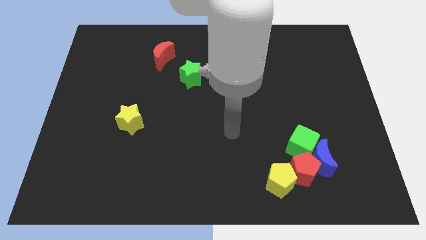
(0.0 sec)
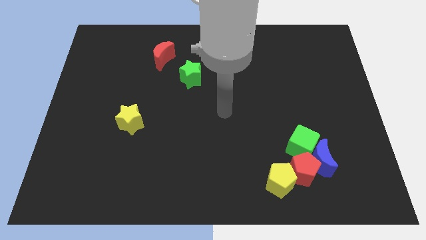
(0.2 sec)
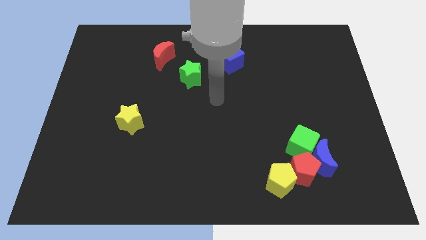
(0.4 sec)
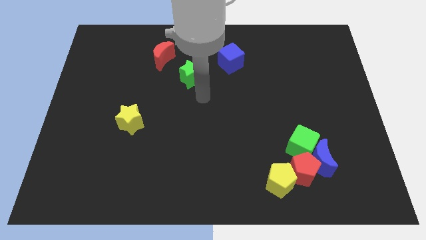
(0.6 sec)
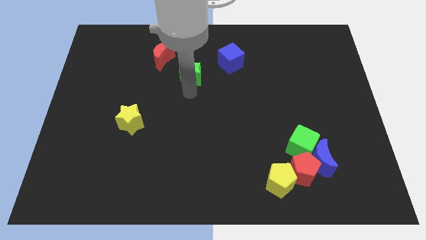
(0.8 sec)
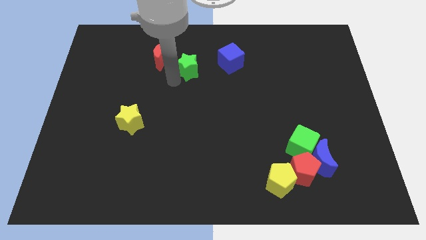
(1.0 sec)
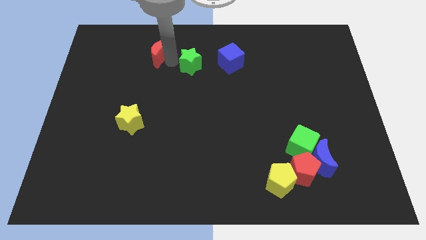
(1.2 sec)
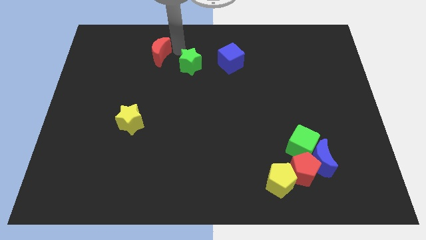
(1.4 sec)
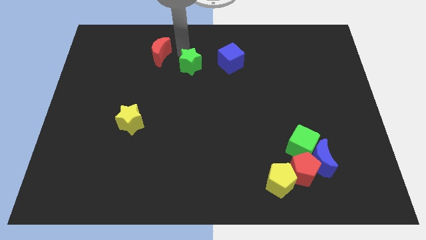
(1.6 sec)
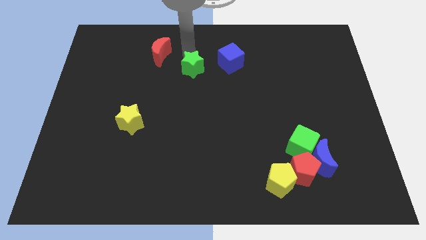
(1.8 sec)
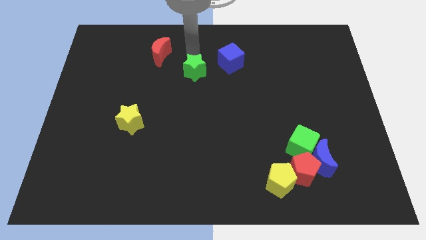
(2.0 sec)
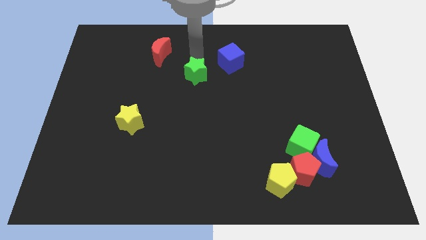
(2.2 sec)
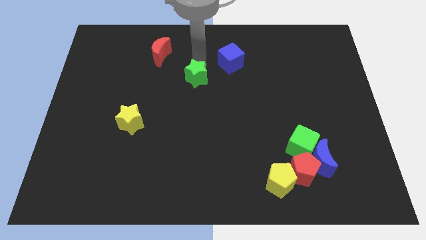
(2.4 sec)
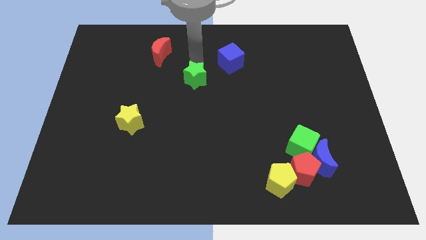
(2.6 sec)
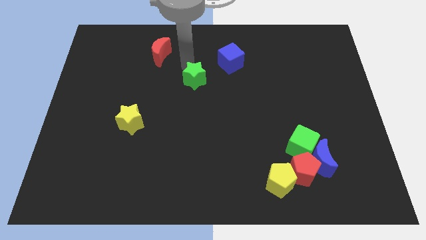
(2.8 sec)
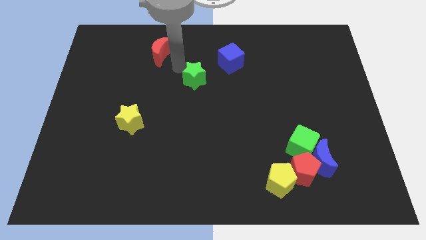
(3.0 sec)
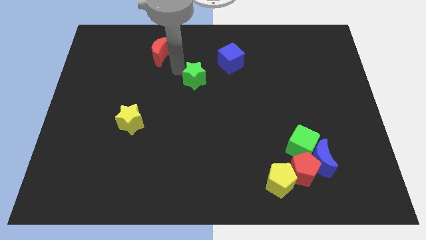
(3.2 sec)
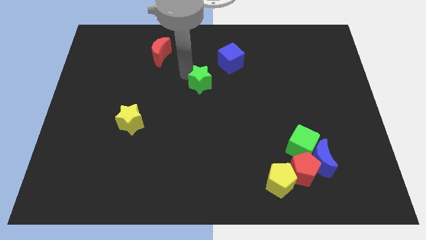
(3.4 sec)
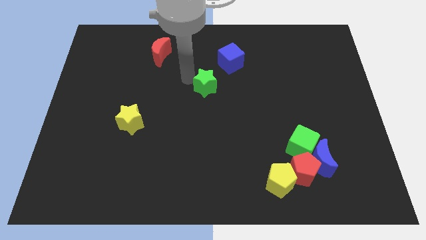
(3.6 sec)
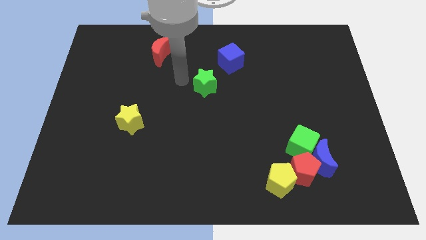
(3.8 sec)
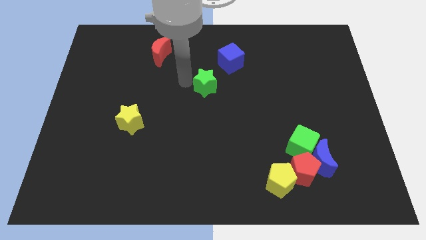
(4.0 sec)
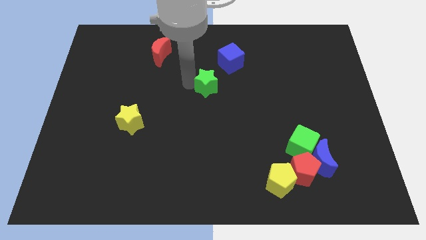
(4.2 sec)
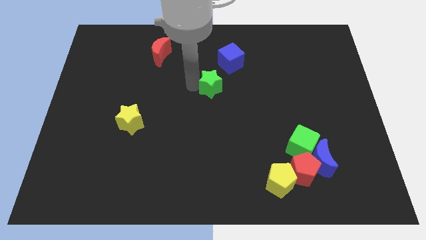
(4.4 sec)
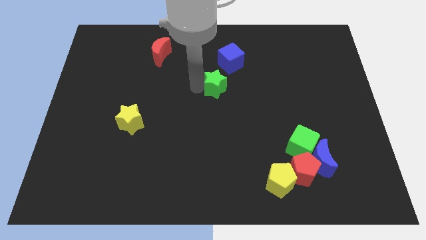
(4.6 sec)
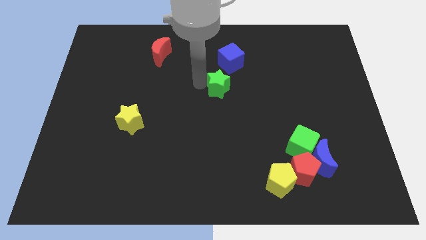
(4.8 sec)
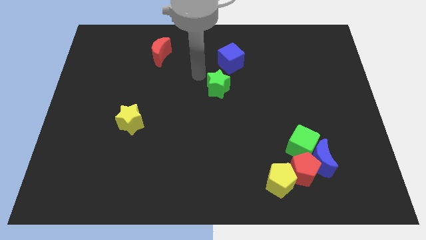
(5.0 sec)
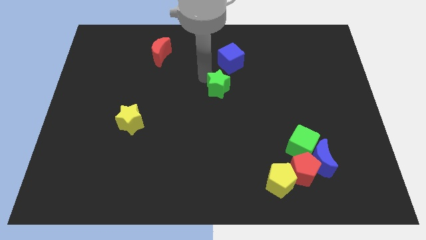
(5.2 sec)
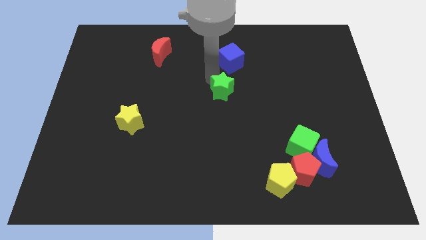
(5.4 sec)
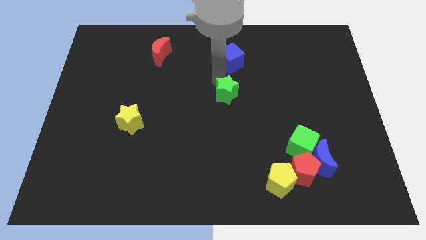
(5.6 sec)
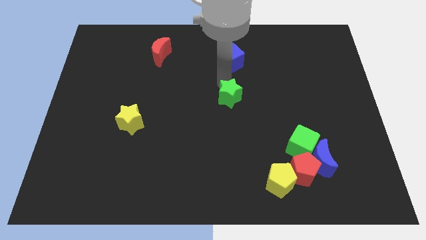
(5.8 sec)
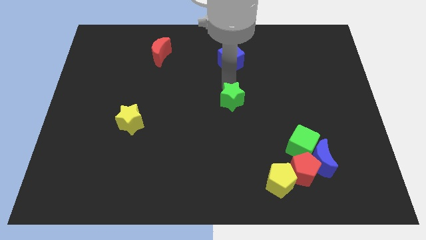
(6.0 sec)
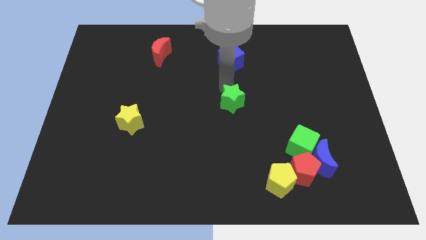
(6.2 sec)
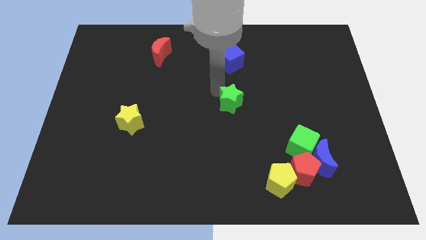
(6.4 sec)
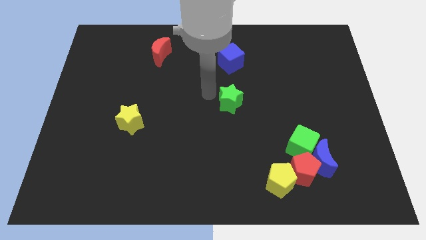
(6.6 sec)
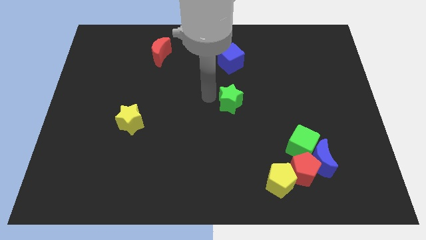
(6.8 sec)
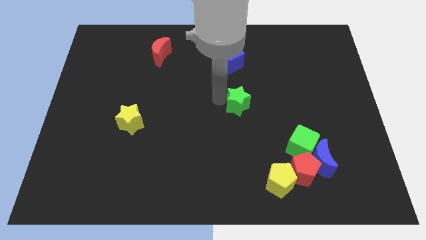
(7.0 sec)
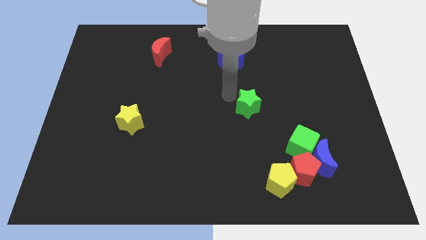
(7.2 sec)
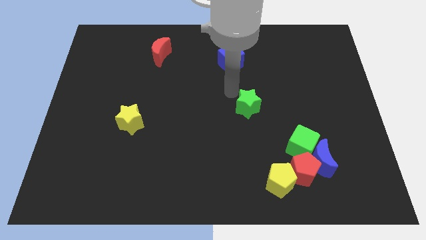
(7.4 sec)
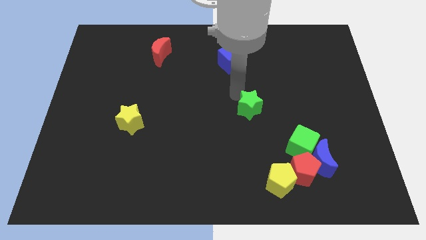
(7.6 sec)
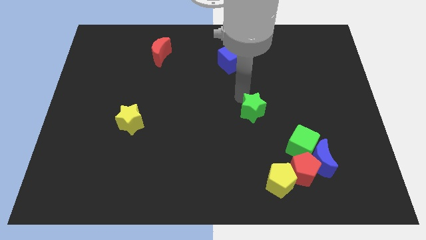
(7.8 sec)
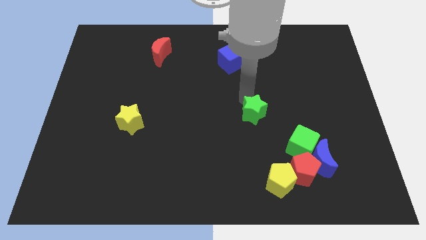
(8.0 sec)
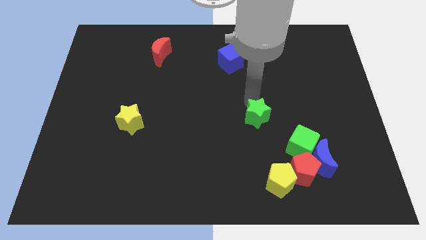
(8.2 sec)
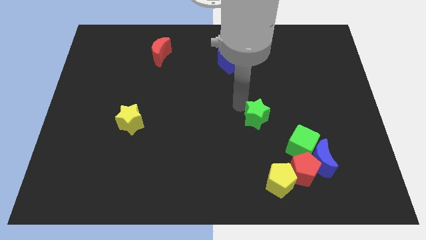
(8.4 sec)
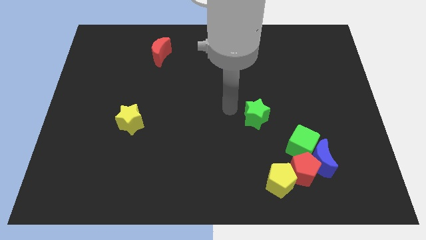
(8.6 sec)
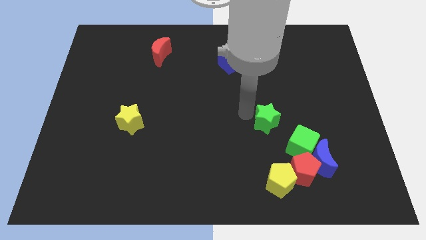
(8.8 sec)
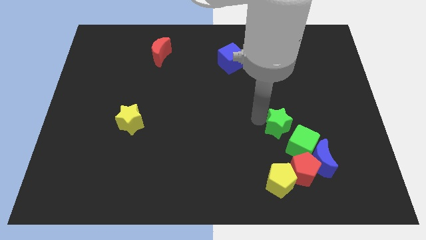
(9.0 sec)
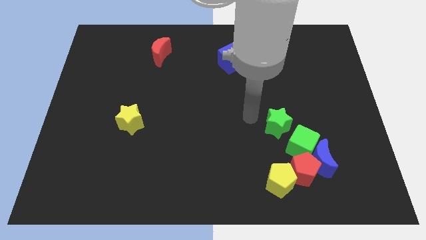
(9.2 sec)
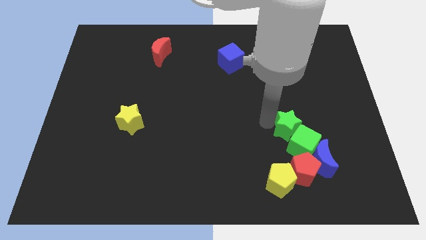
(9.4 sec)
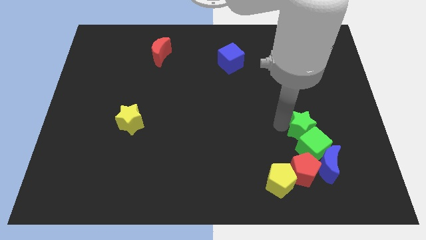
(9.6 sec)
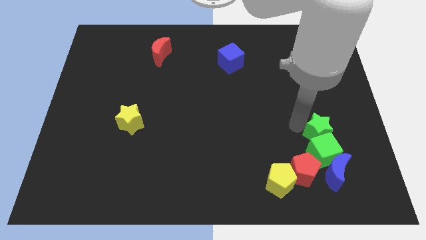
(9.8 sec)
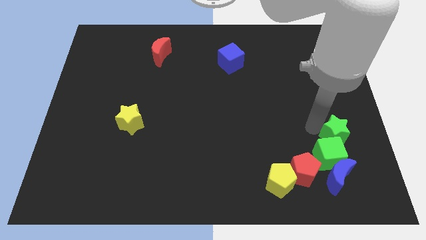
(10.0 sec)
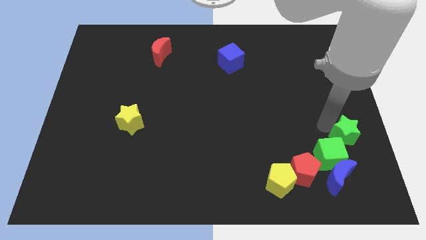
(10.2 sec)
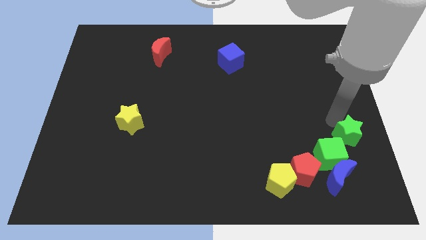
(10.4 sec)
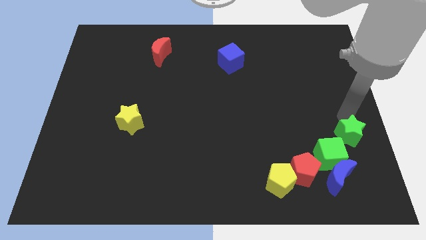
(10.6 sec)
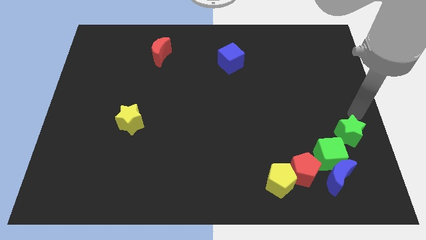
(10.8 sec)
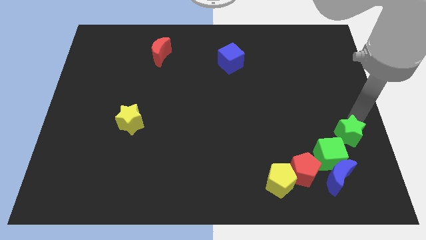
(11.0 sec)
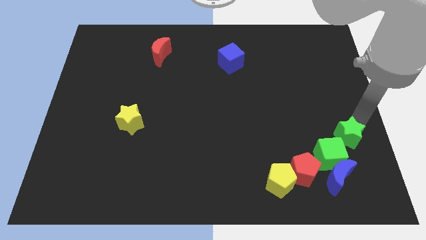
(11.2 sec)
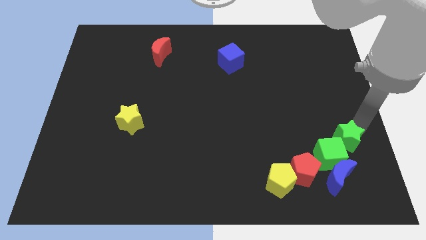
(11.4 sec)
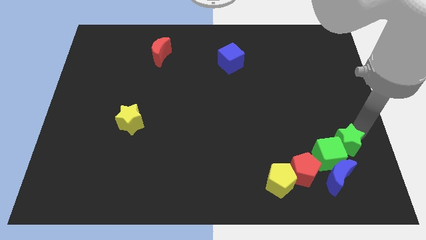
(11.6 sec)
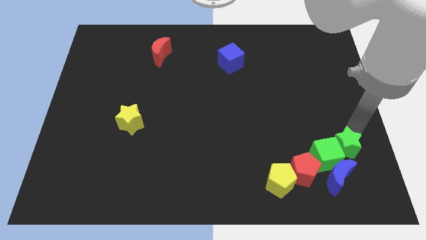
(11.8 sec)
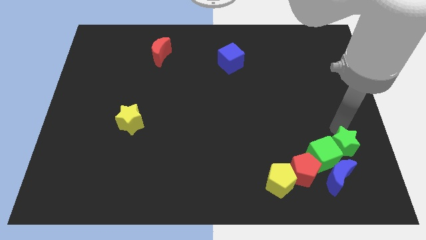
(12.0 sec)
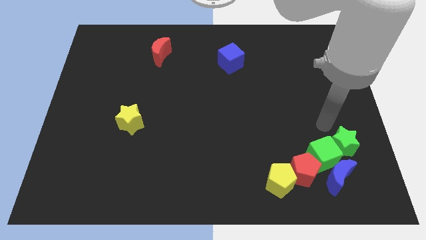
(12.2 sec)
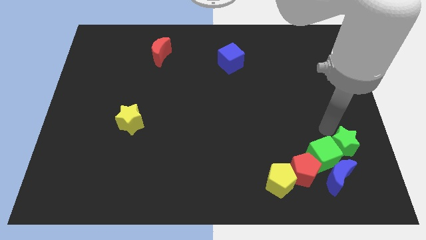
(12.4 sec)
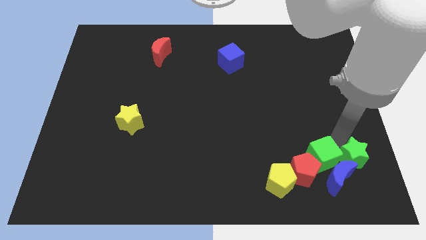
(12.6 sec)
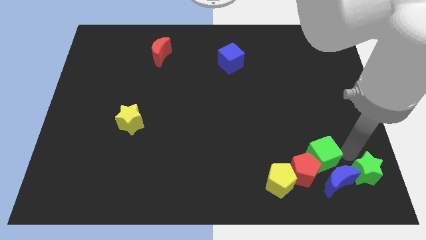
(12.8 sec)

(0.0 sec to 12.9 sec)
push the green star to the lower right corner
